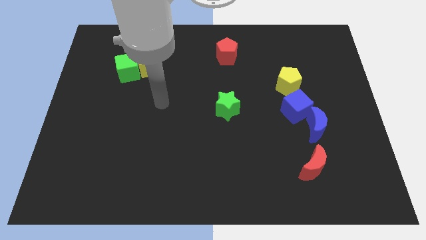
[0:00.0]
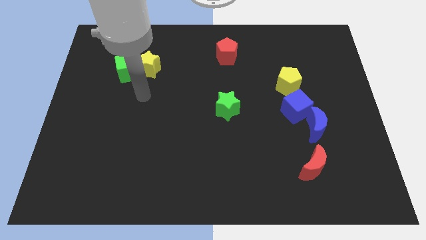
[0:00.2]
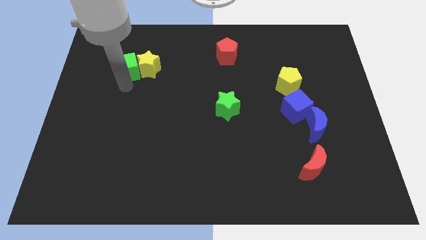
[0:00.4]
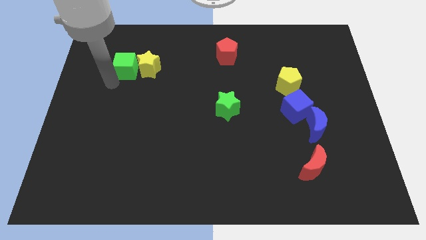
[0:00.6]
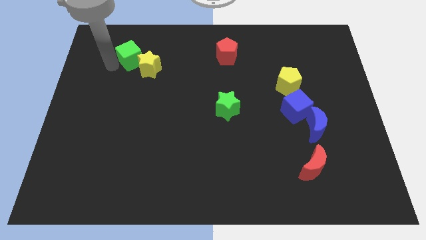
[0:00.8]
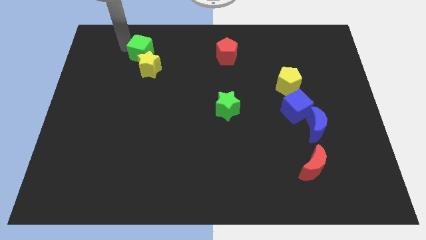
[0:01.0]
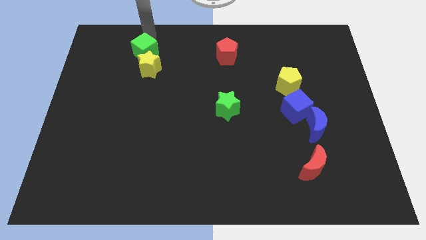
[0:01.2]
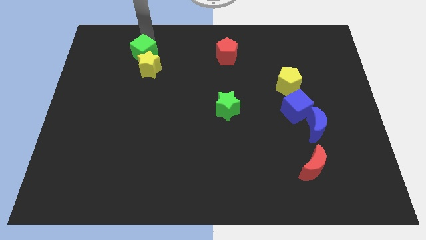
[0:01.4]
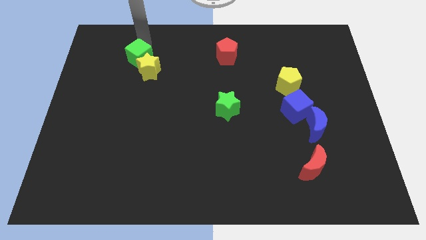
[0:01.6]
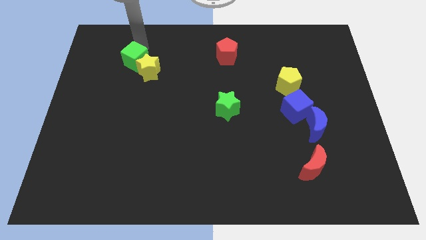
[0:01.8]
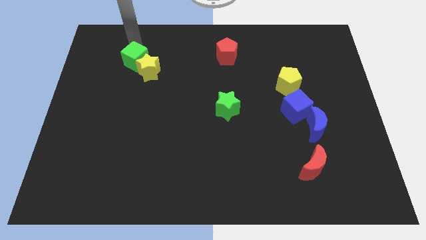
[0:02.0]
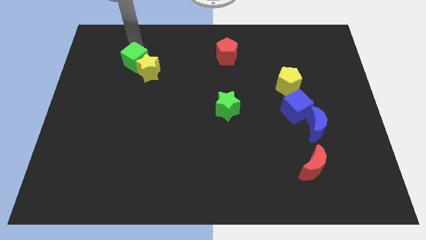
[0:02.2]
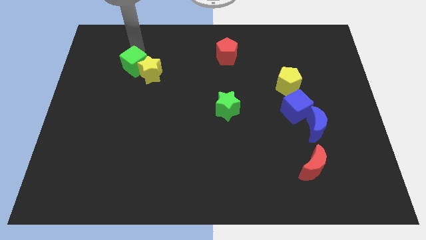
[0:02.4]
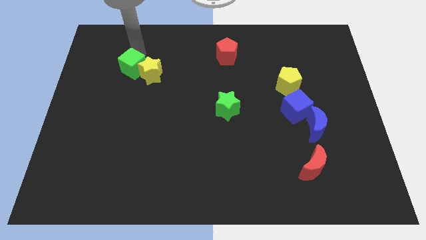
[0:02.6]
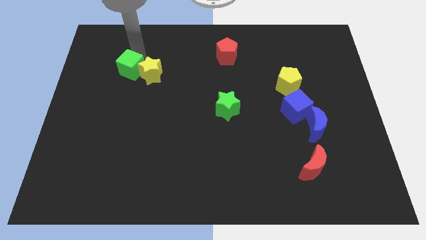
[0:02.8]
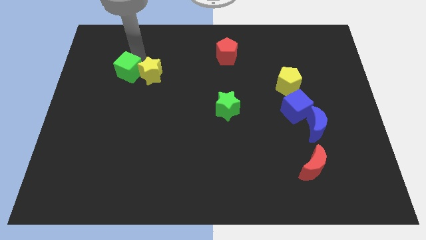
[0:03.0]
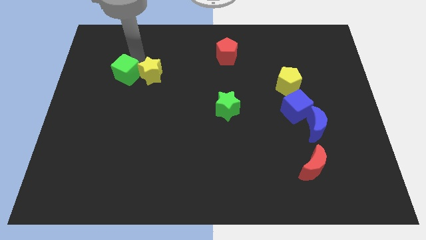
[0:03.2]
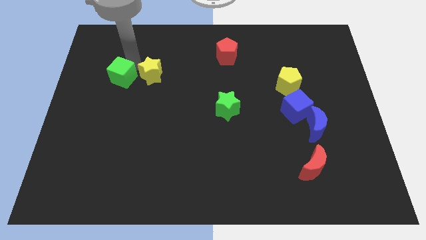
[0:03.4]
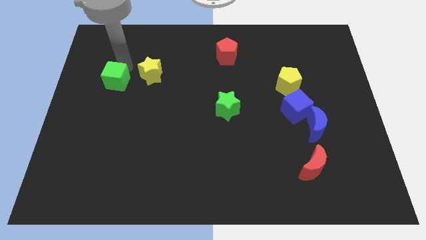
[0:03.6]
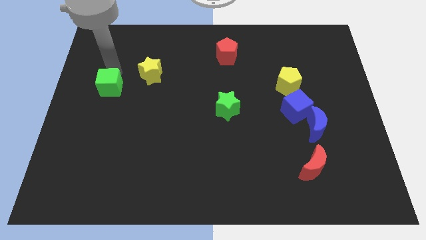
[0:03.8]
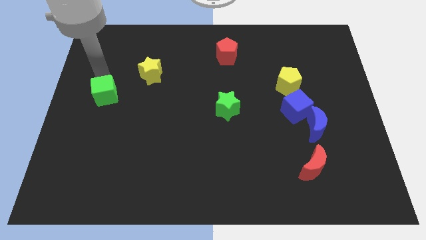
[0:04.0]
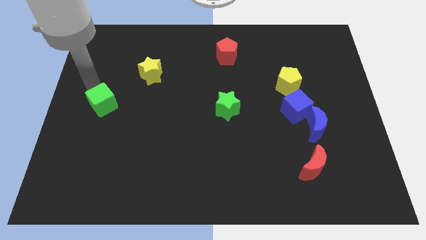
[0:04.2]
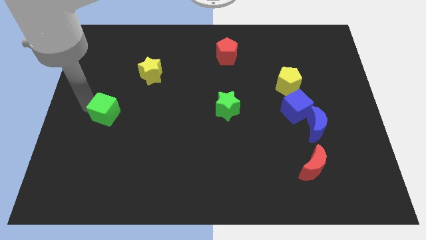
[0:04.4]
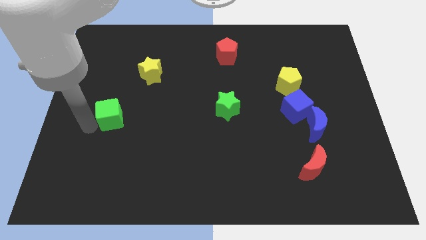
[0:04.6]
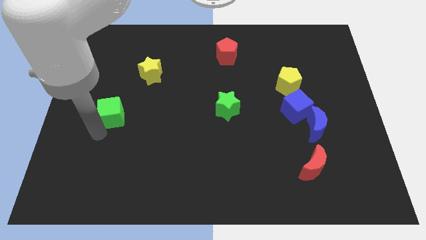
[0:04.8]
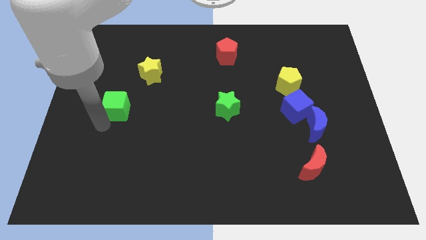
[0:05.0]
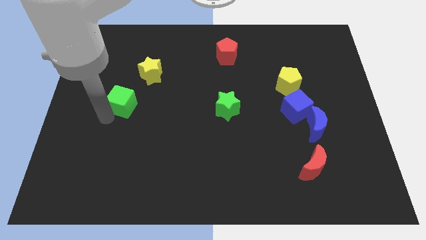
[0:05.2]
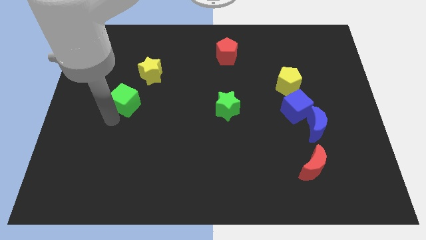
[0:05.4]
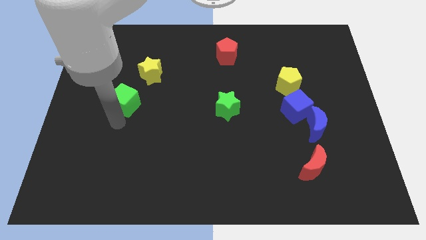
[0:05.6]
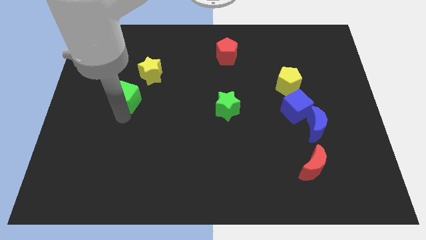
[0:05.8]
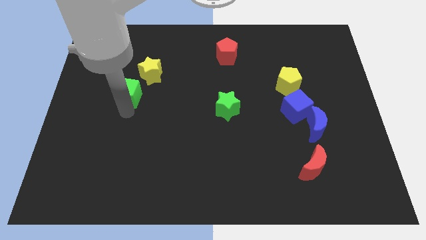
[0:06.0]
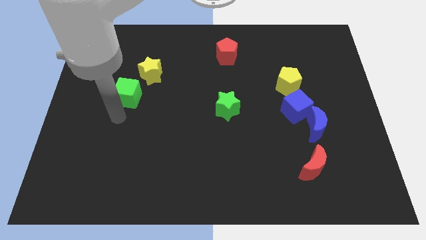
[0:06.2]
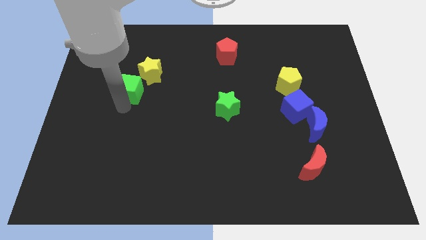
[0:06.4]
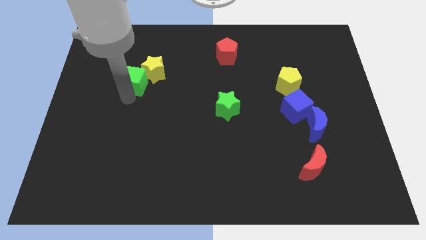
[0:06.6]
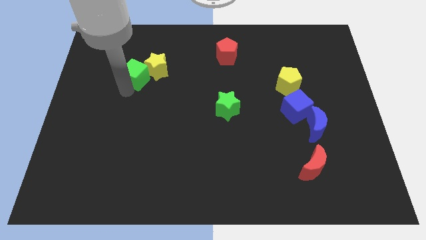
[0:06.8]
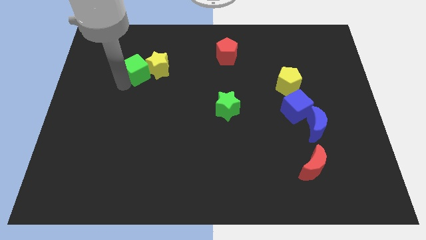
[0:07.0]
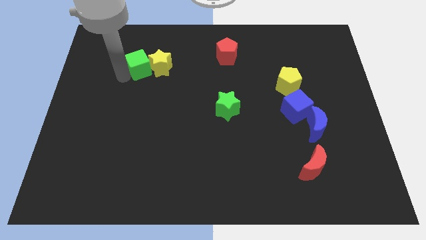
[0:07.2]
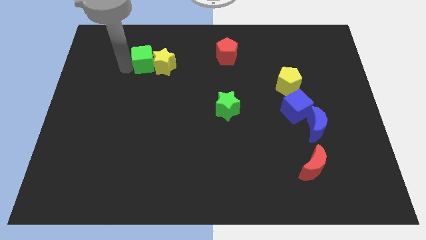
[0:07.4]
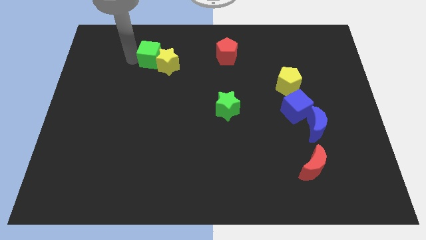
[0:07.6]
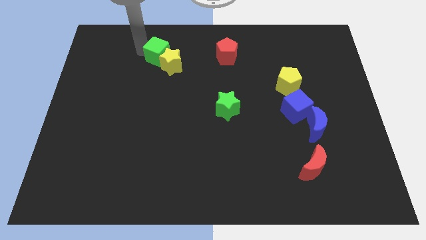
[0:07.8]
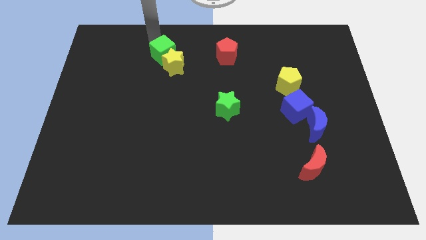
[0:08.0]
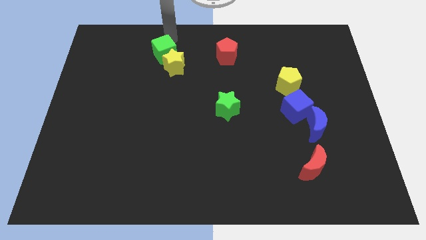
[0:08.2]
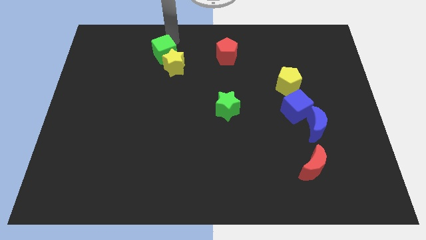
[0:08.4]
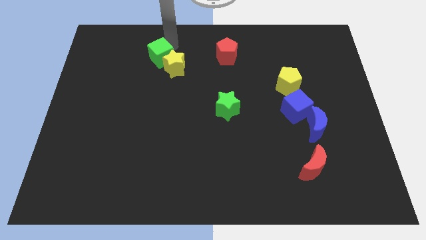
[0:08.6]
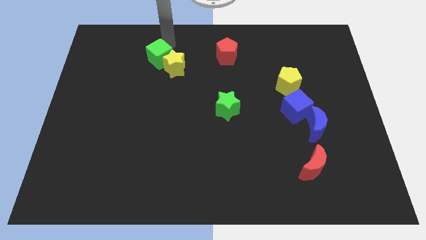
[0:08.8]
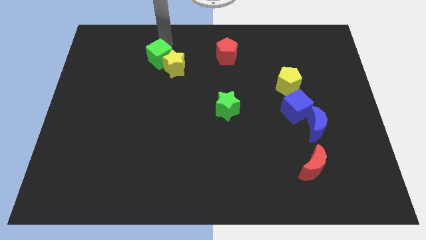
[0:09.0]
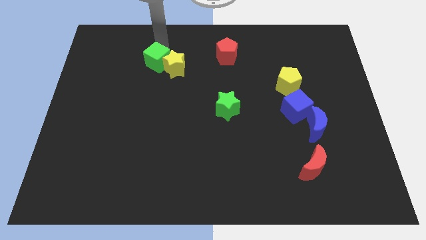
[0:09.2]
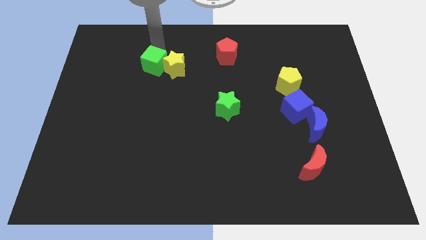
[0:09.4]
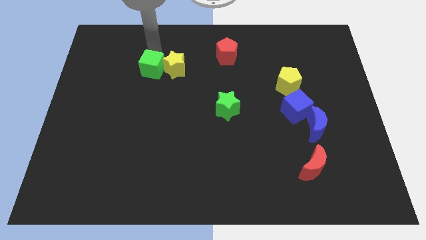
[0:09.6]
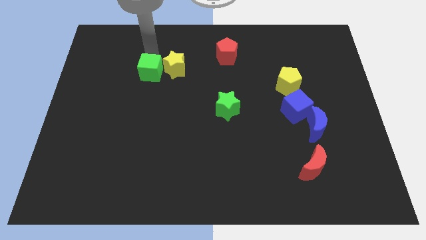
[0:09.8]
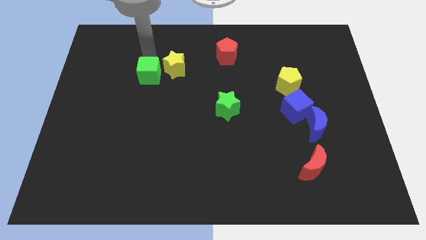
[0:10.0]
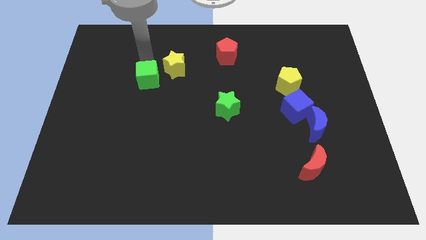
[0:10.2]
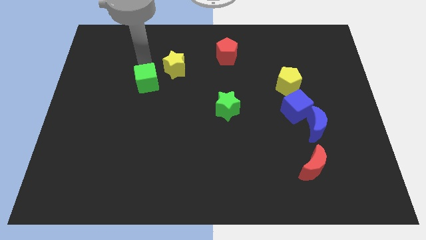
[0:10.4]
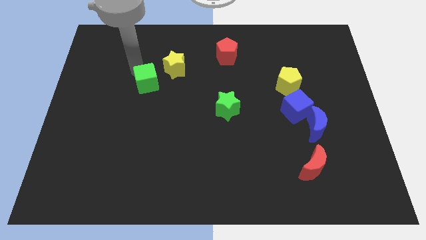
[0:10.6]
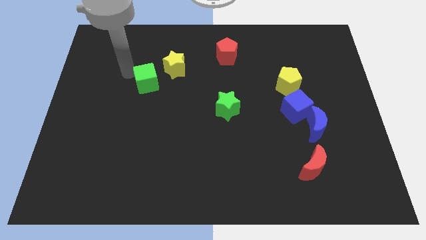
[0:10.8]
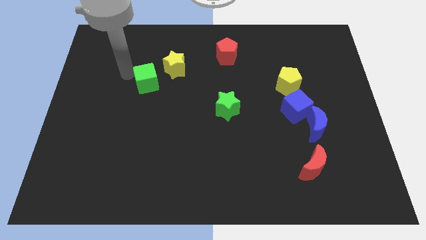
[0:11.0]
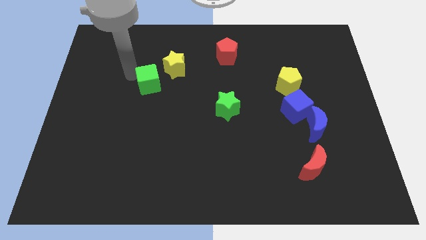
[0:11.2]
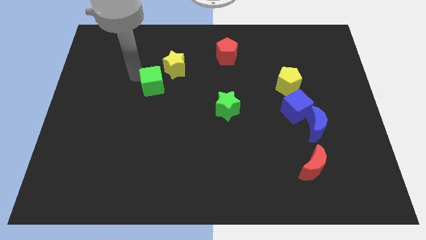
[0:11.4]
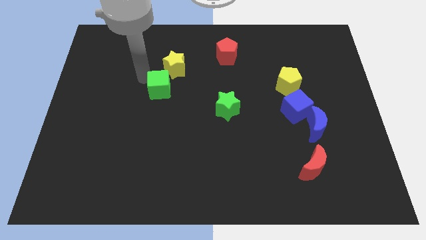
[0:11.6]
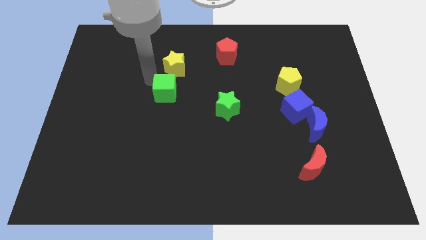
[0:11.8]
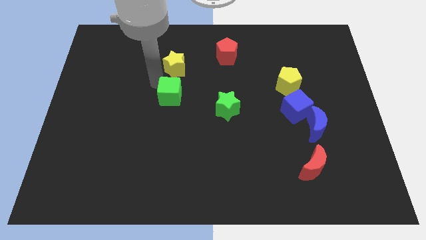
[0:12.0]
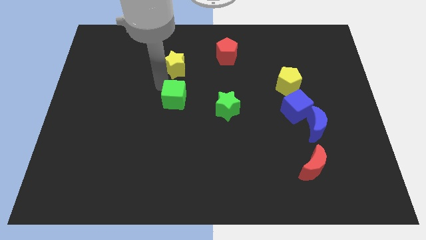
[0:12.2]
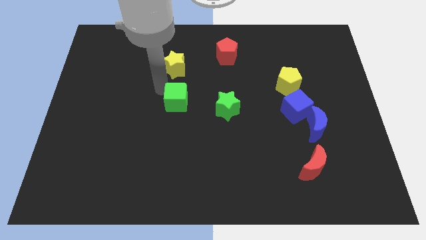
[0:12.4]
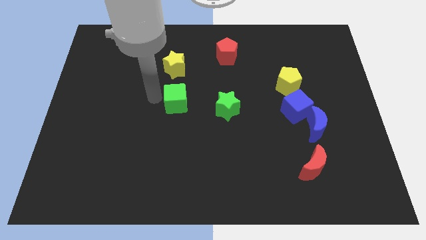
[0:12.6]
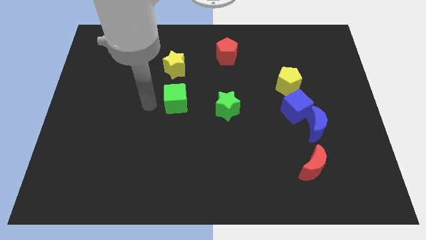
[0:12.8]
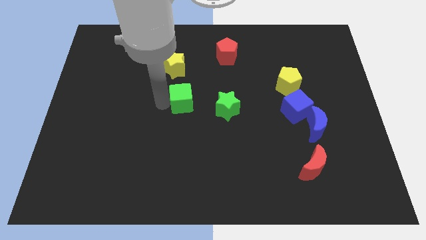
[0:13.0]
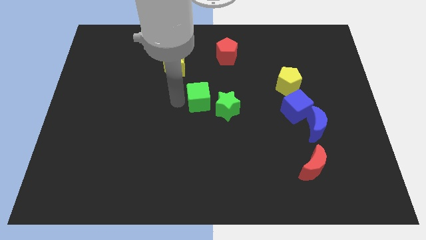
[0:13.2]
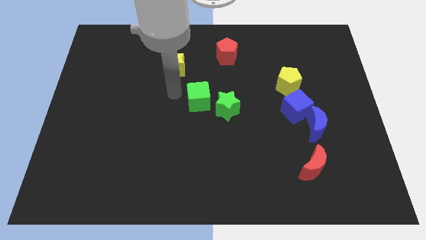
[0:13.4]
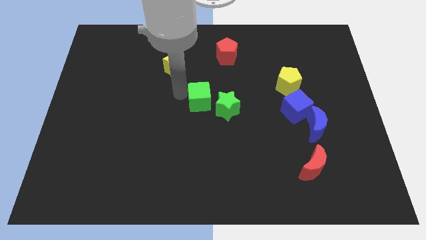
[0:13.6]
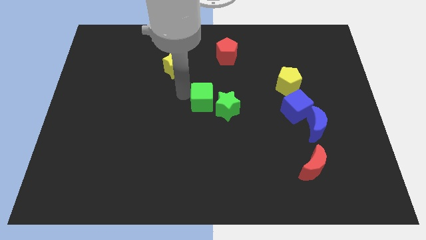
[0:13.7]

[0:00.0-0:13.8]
slide the green cube next to the green star

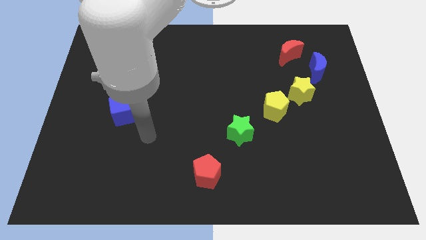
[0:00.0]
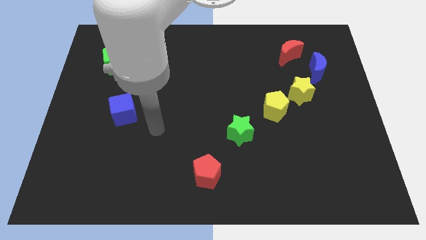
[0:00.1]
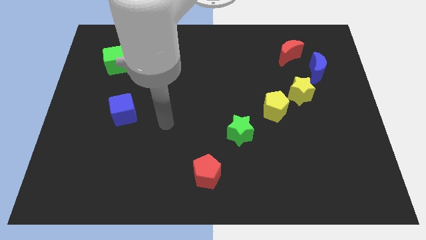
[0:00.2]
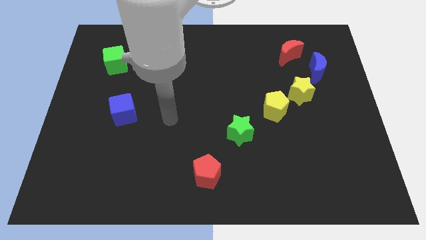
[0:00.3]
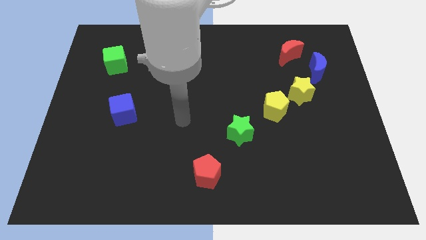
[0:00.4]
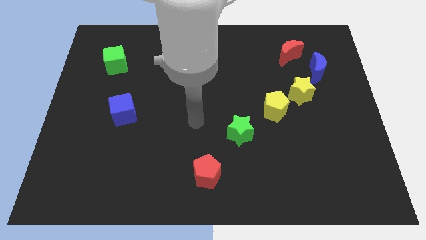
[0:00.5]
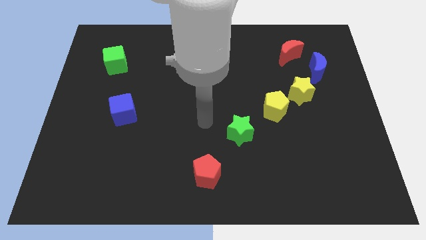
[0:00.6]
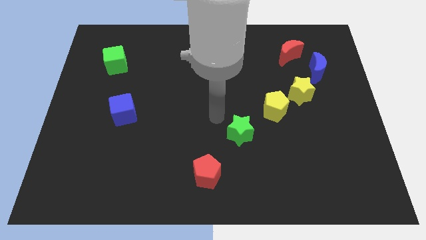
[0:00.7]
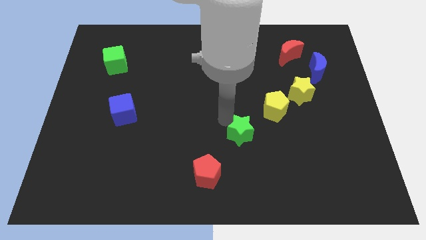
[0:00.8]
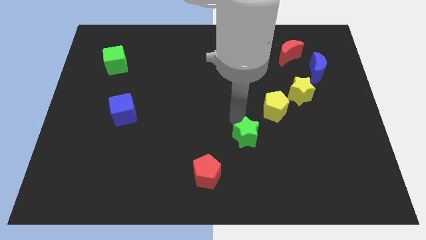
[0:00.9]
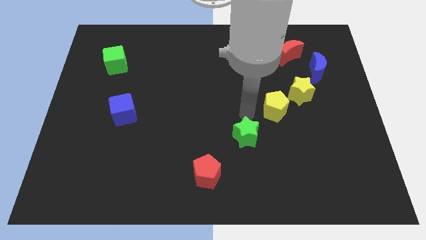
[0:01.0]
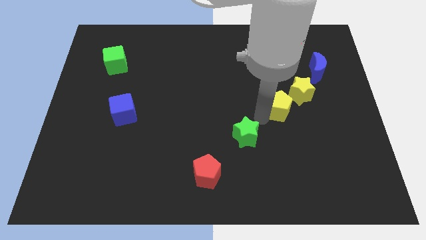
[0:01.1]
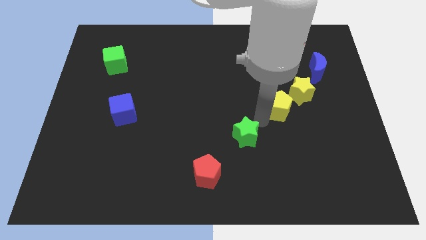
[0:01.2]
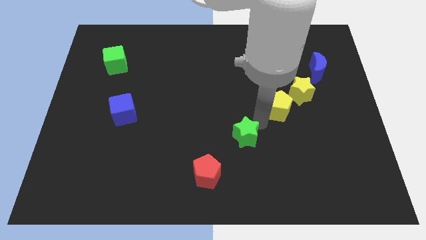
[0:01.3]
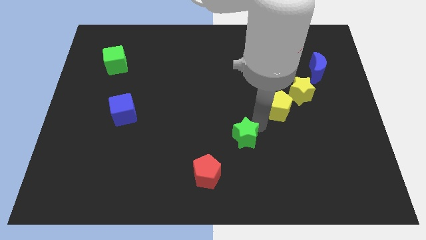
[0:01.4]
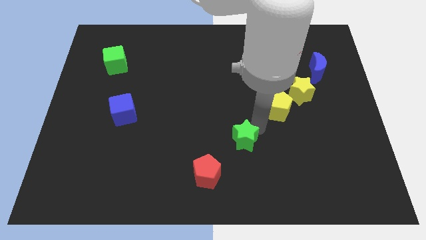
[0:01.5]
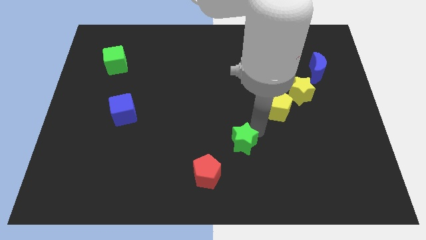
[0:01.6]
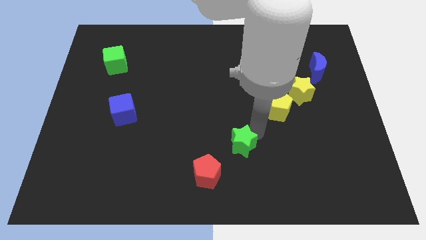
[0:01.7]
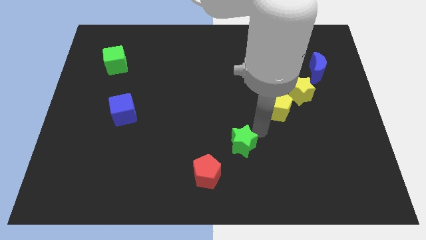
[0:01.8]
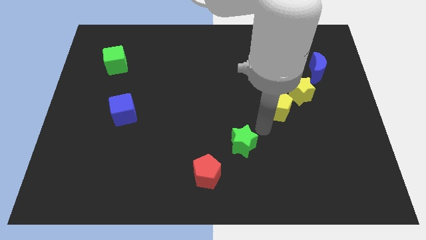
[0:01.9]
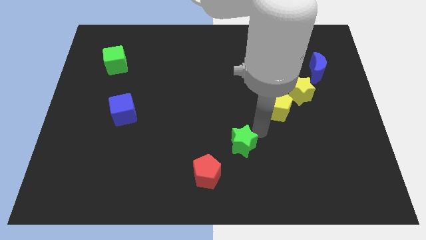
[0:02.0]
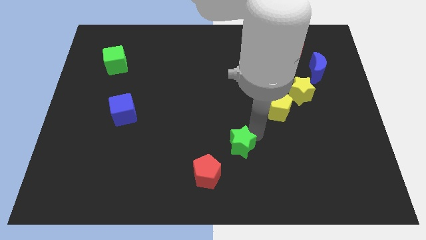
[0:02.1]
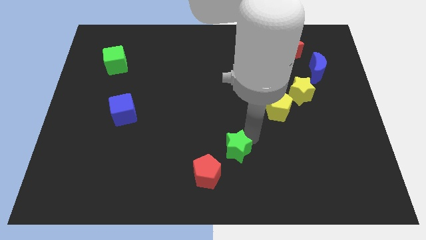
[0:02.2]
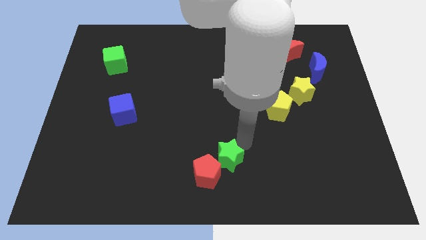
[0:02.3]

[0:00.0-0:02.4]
push the green star towards the red pentagon
